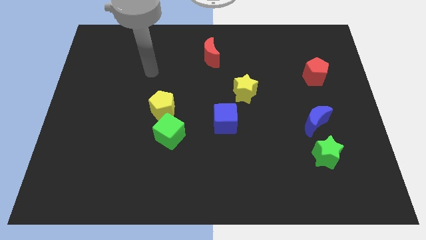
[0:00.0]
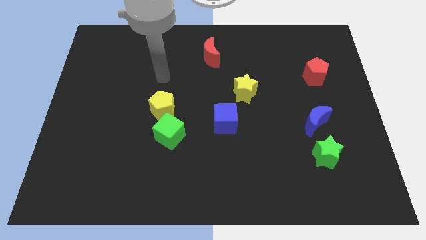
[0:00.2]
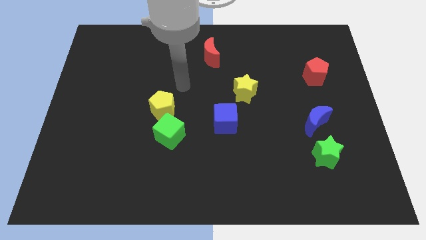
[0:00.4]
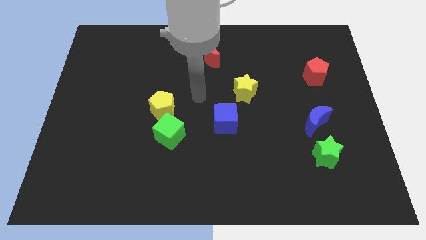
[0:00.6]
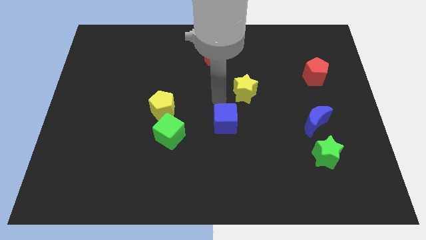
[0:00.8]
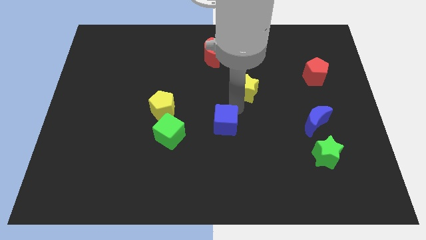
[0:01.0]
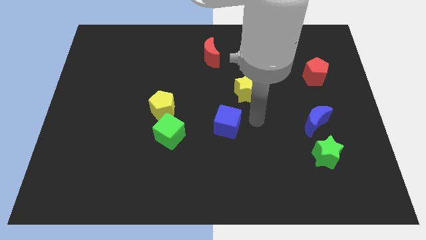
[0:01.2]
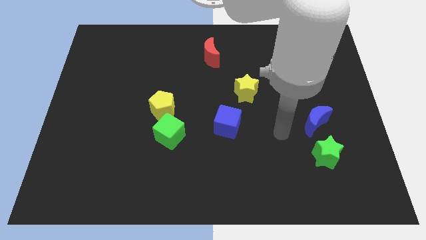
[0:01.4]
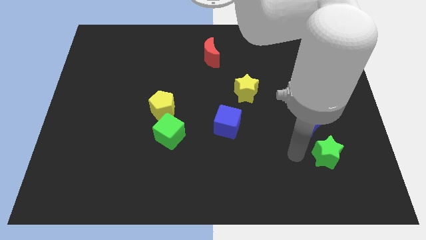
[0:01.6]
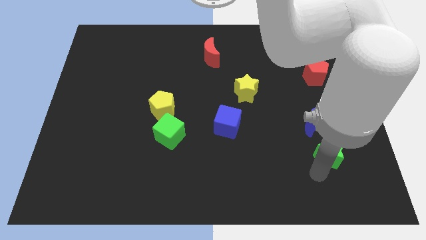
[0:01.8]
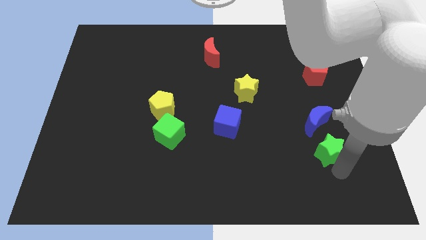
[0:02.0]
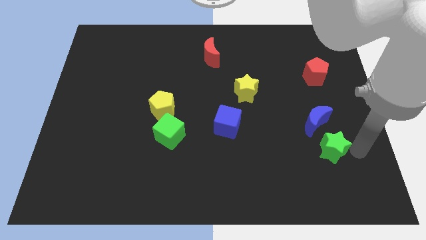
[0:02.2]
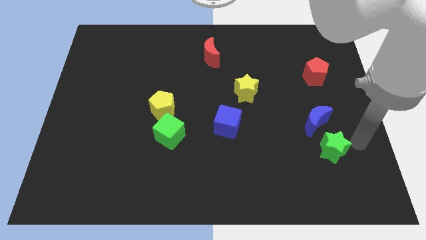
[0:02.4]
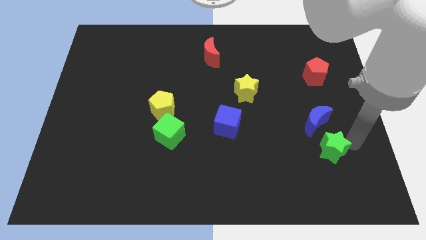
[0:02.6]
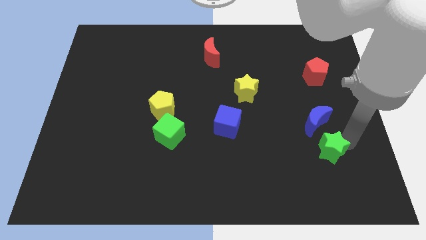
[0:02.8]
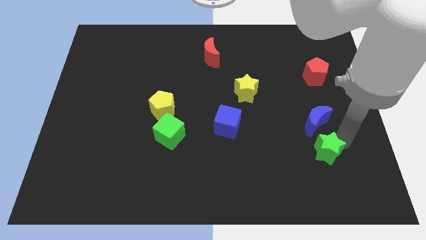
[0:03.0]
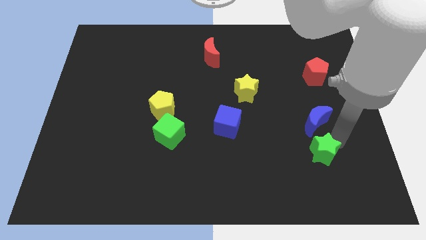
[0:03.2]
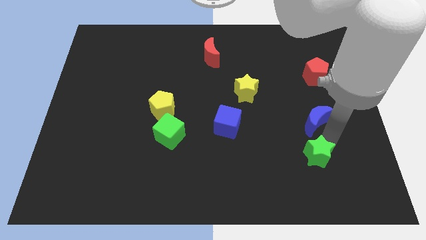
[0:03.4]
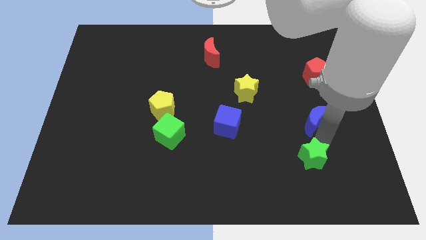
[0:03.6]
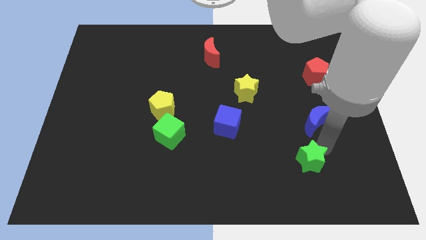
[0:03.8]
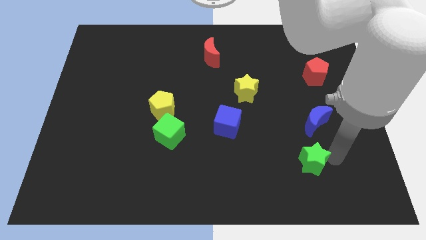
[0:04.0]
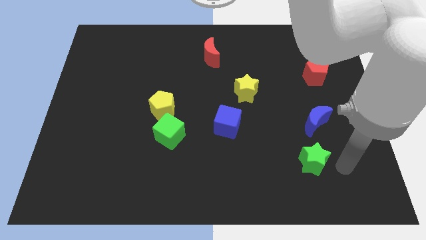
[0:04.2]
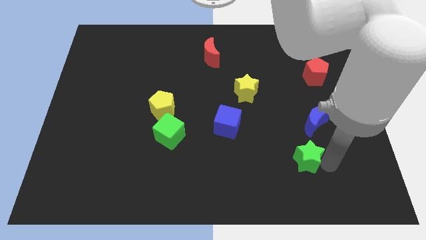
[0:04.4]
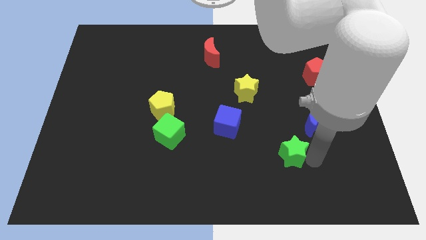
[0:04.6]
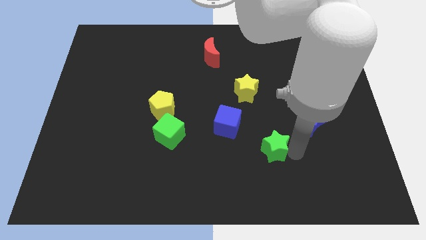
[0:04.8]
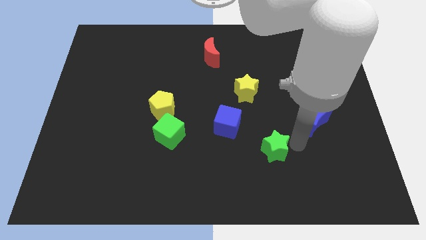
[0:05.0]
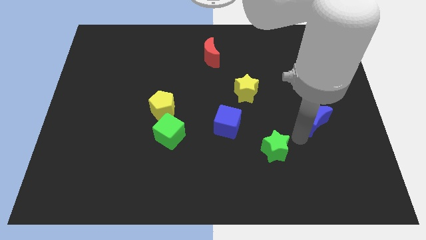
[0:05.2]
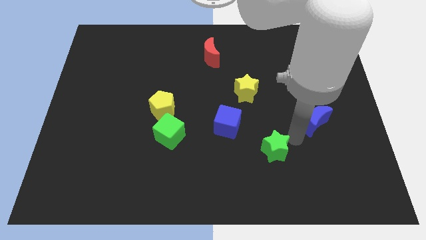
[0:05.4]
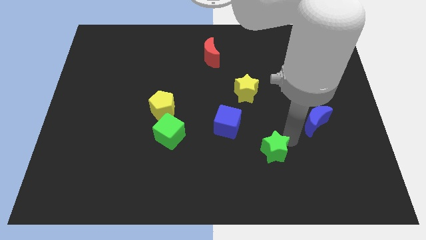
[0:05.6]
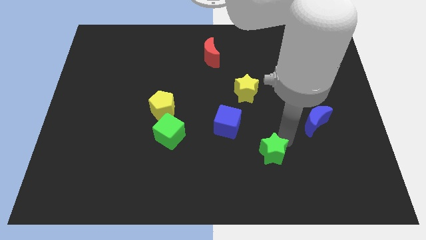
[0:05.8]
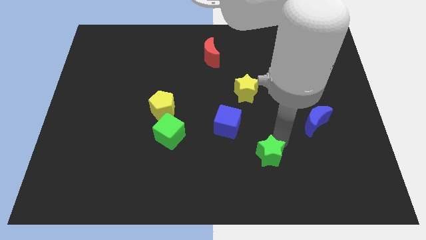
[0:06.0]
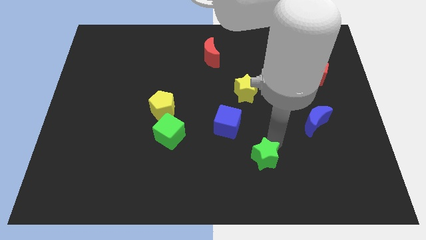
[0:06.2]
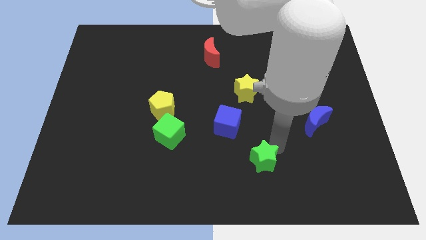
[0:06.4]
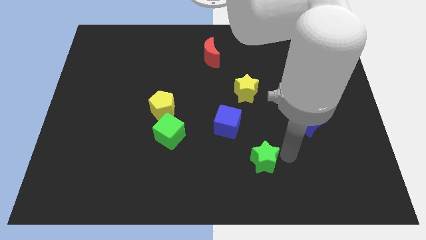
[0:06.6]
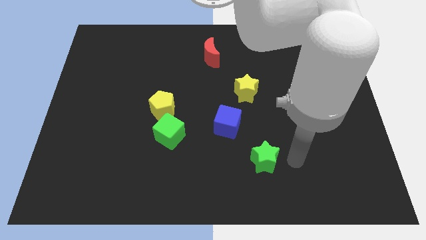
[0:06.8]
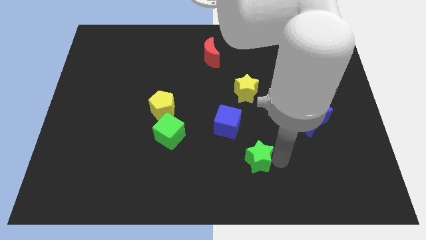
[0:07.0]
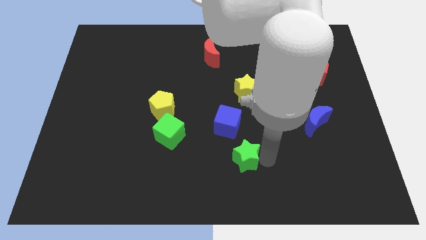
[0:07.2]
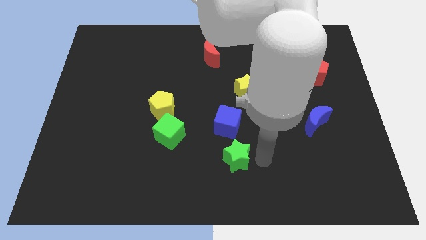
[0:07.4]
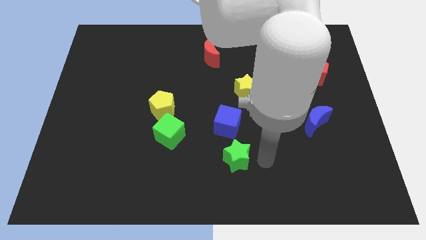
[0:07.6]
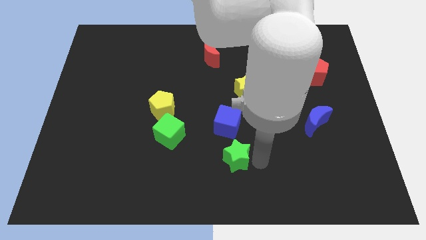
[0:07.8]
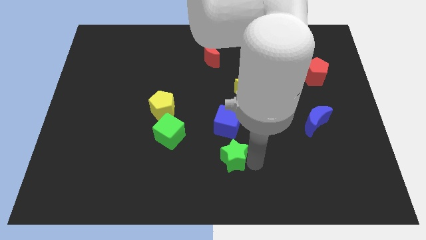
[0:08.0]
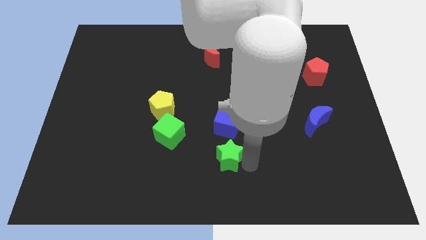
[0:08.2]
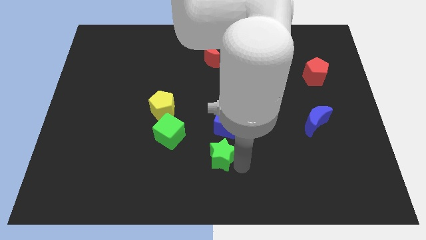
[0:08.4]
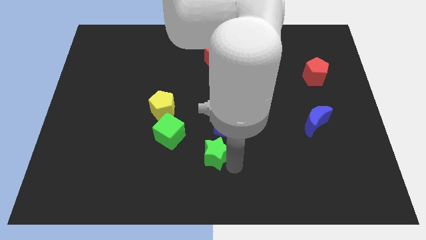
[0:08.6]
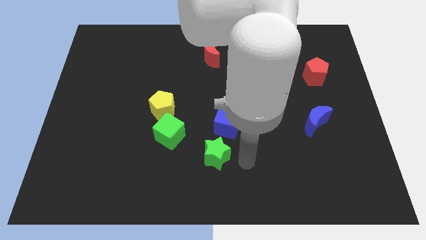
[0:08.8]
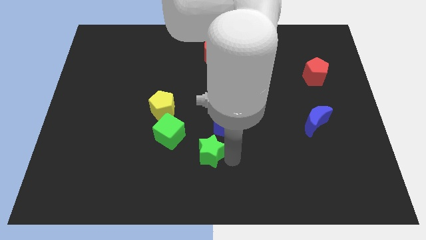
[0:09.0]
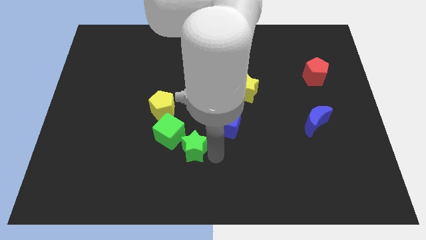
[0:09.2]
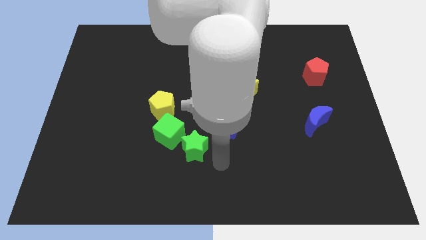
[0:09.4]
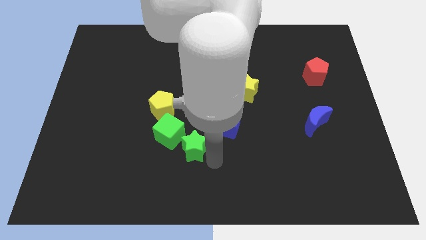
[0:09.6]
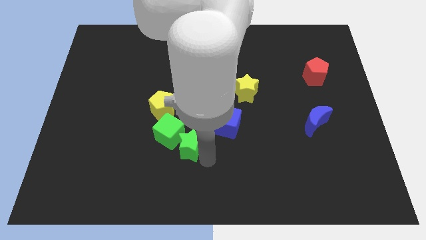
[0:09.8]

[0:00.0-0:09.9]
slide the green star towards the green cube

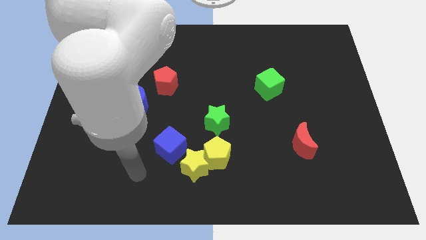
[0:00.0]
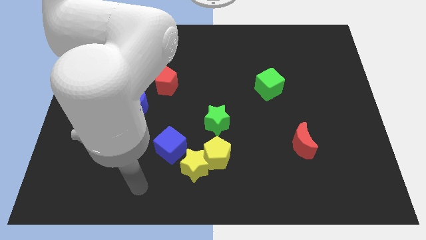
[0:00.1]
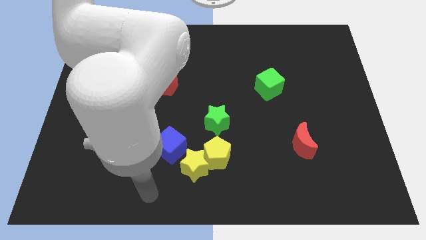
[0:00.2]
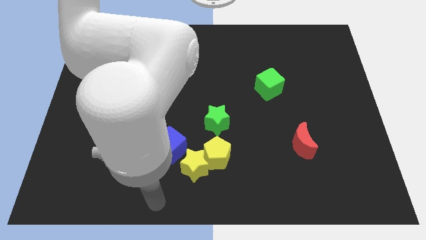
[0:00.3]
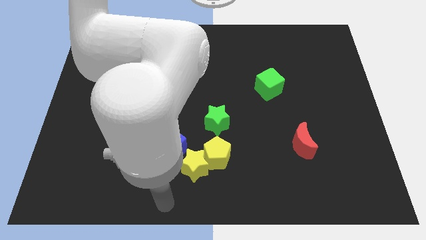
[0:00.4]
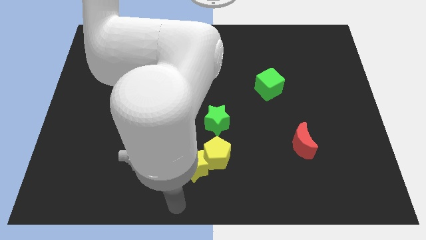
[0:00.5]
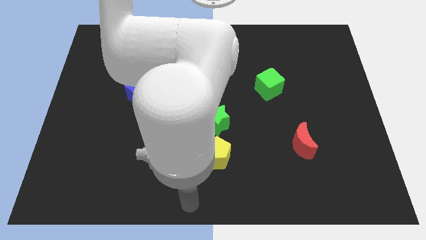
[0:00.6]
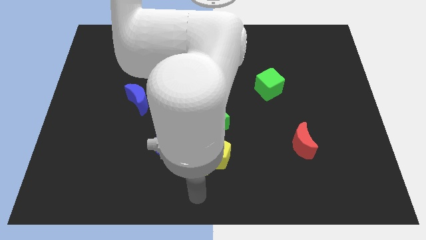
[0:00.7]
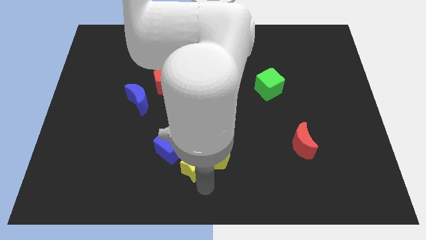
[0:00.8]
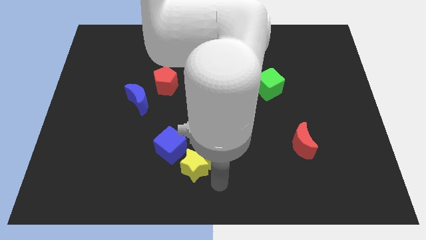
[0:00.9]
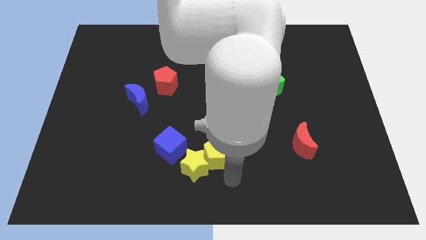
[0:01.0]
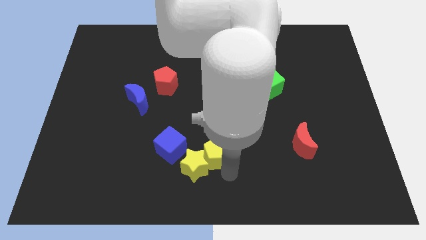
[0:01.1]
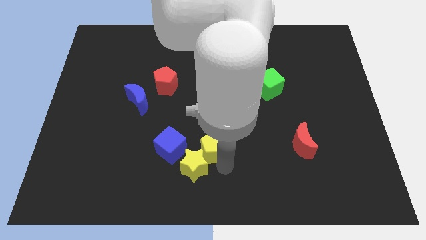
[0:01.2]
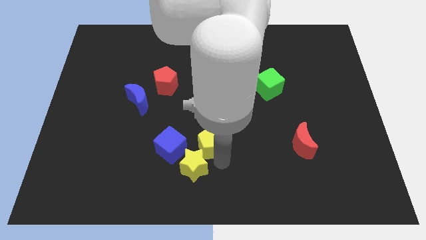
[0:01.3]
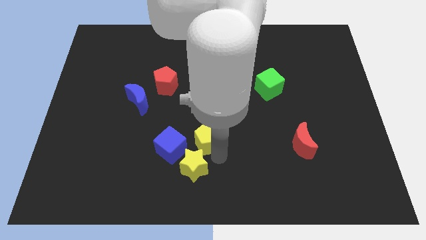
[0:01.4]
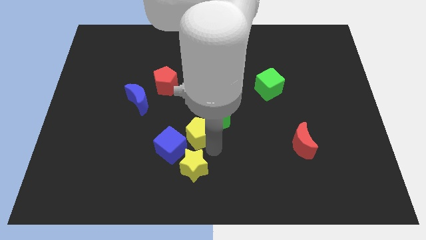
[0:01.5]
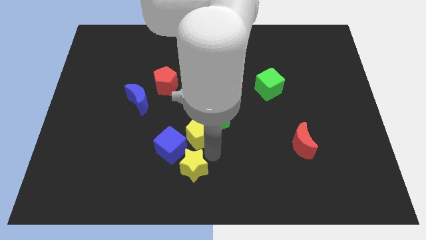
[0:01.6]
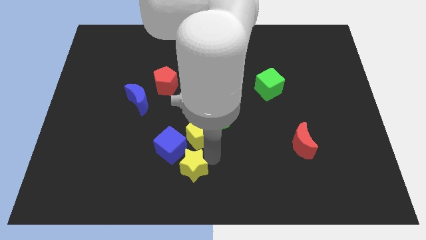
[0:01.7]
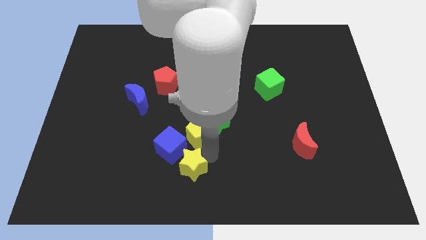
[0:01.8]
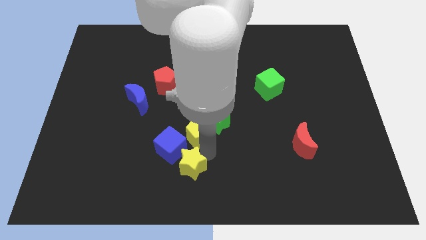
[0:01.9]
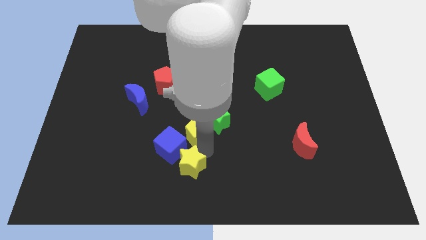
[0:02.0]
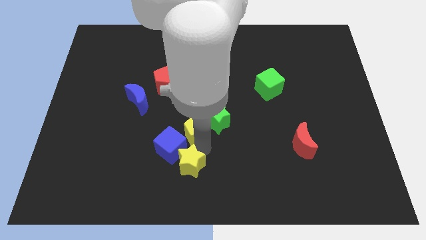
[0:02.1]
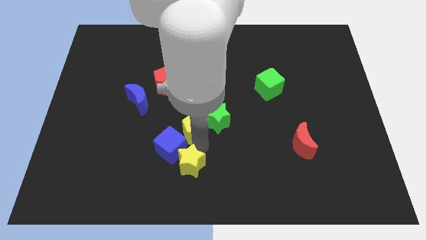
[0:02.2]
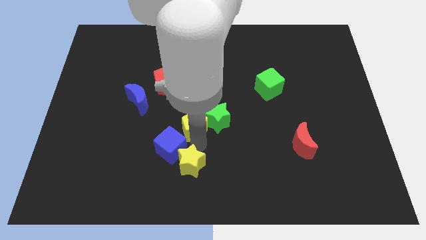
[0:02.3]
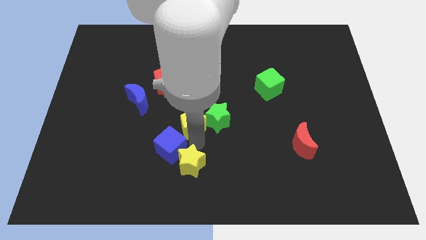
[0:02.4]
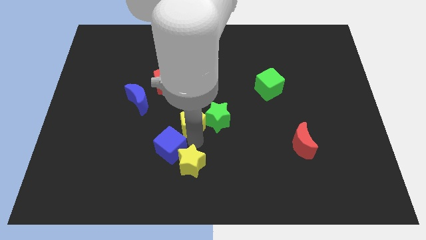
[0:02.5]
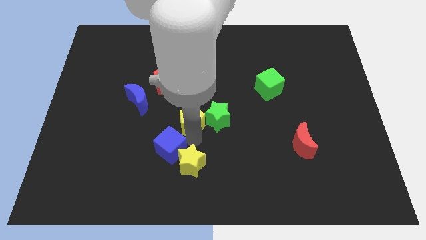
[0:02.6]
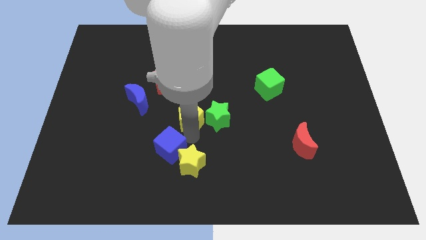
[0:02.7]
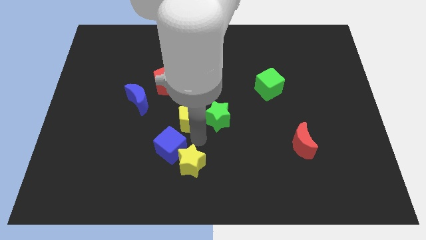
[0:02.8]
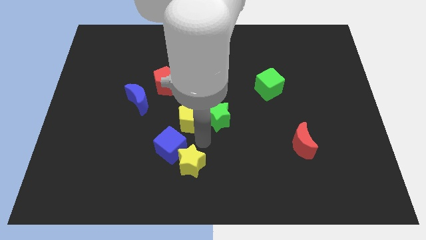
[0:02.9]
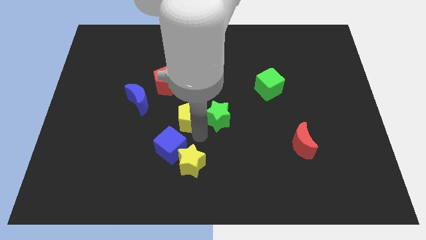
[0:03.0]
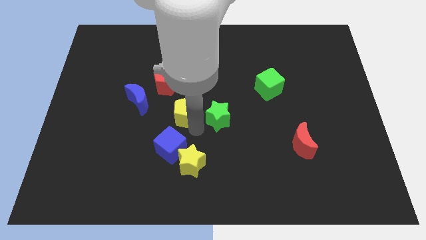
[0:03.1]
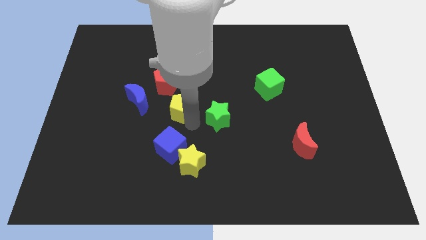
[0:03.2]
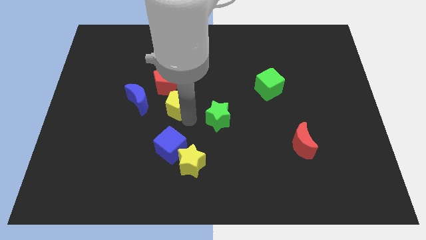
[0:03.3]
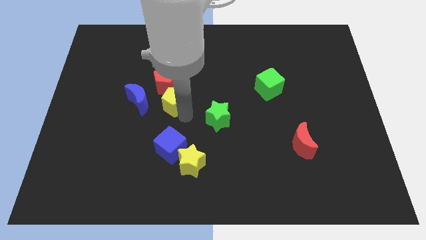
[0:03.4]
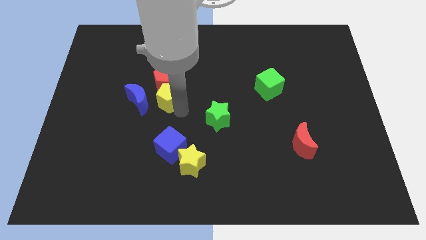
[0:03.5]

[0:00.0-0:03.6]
push the yellow pentagon towards the red pentagon
